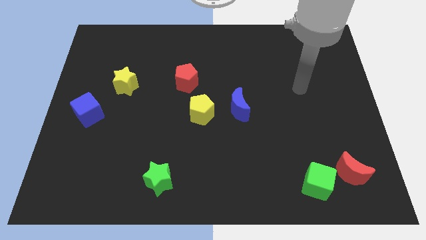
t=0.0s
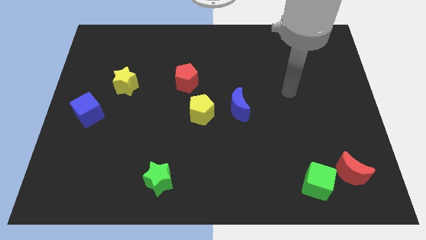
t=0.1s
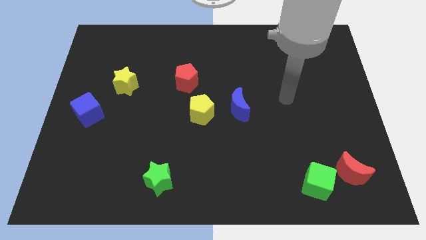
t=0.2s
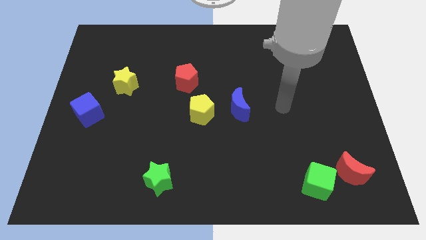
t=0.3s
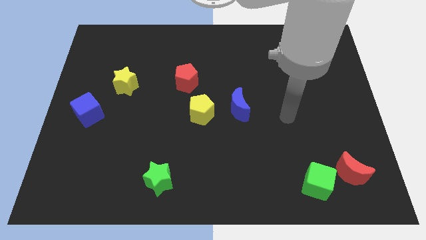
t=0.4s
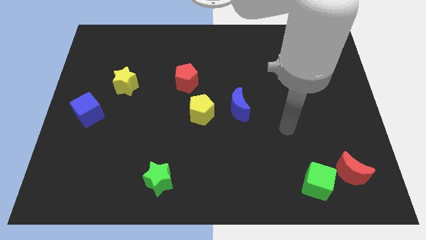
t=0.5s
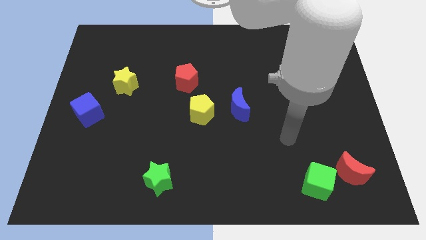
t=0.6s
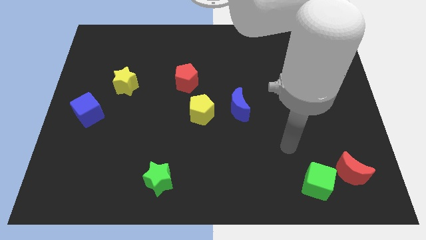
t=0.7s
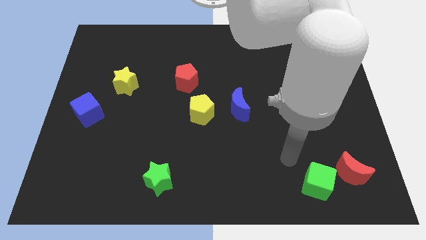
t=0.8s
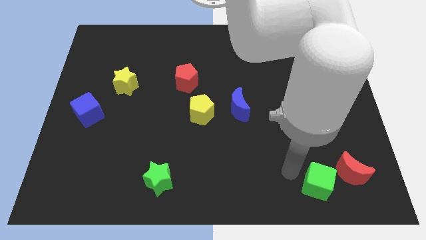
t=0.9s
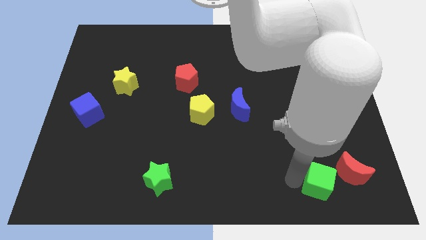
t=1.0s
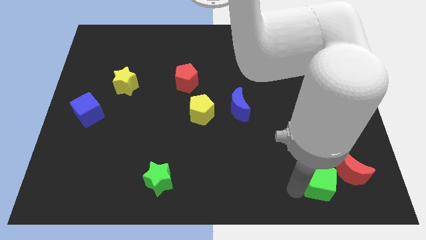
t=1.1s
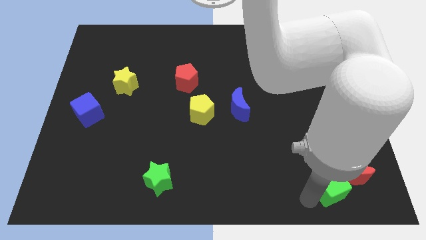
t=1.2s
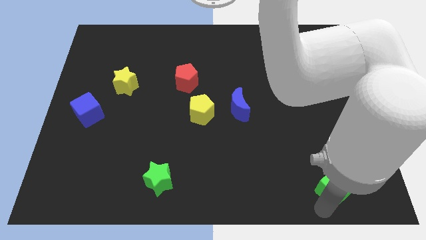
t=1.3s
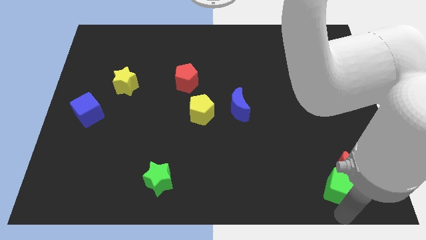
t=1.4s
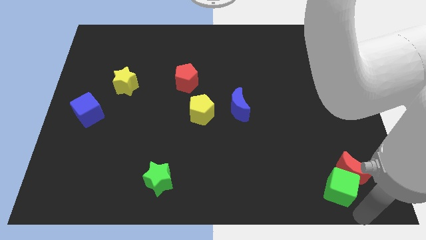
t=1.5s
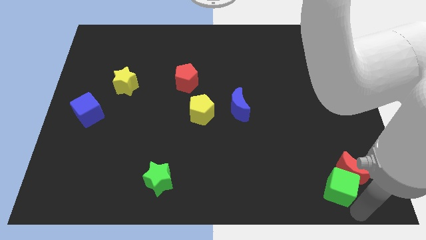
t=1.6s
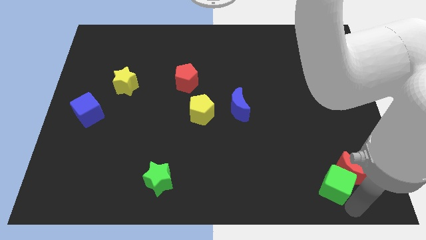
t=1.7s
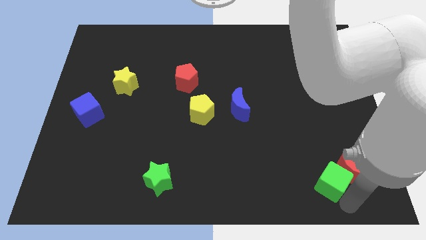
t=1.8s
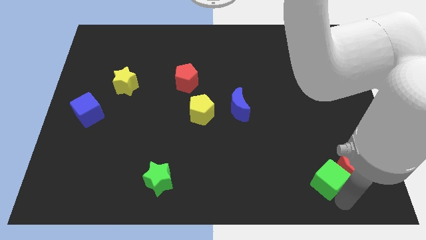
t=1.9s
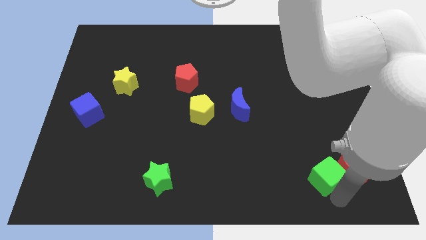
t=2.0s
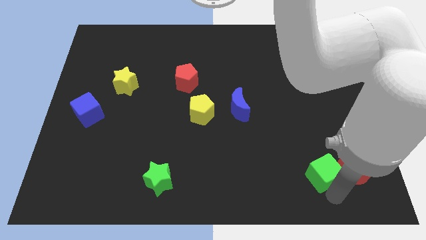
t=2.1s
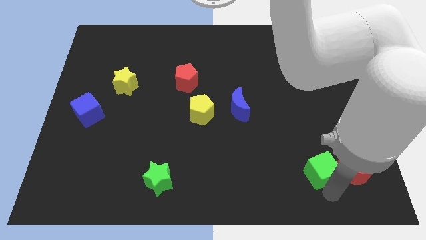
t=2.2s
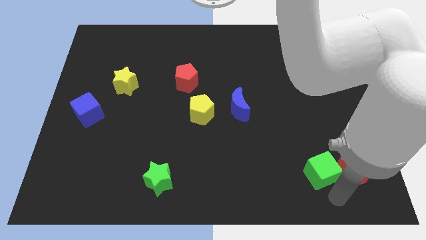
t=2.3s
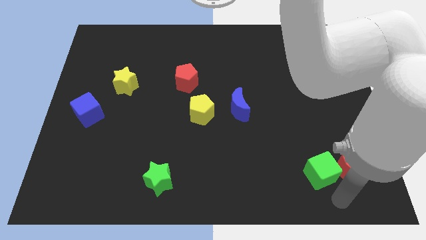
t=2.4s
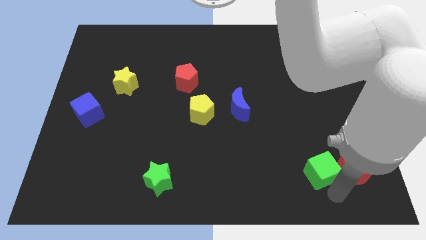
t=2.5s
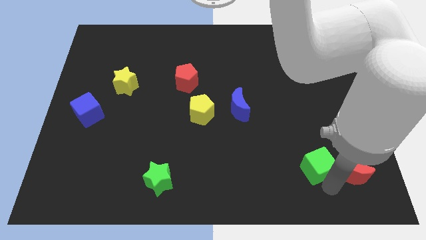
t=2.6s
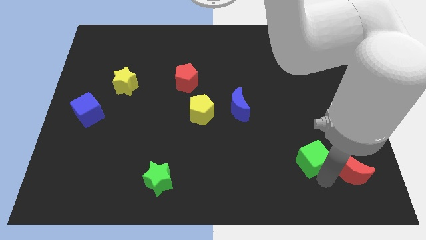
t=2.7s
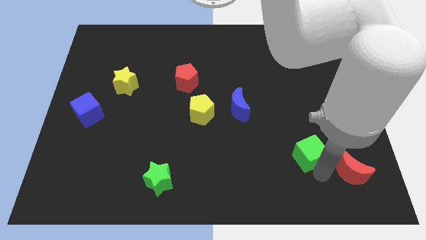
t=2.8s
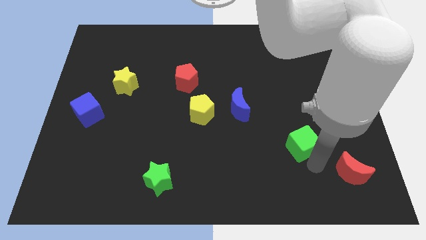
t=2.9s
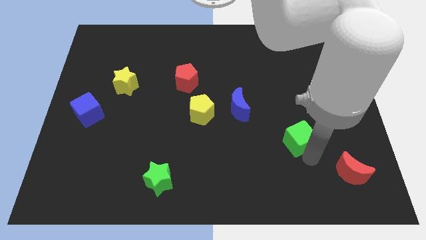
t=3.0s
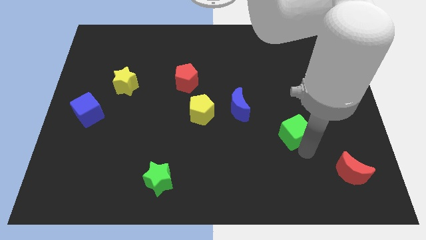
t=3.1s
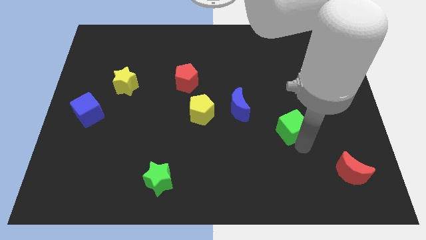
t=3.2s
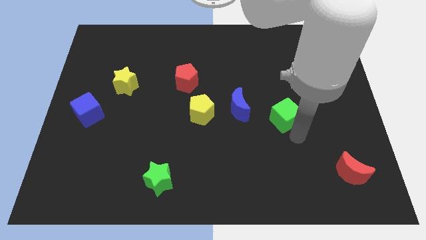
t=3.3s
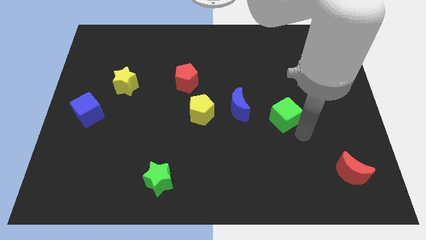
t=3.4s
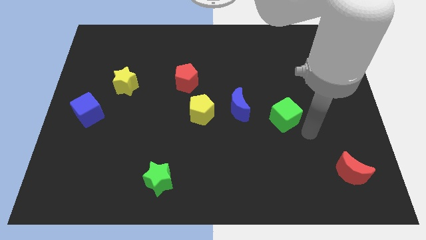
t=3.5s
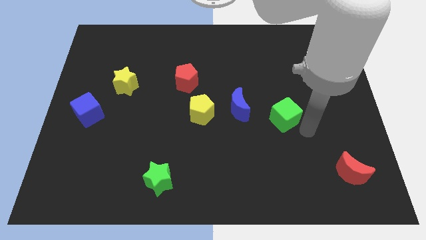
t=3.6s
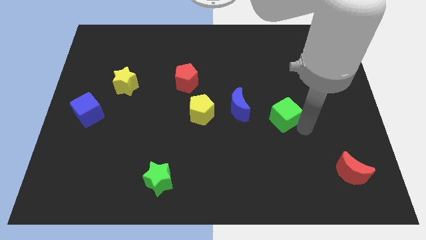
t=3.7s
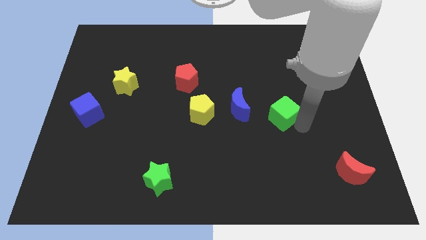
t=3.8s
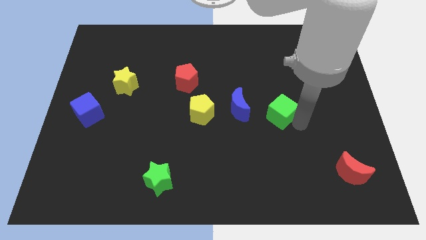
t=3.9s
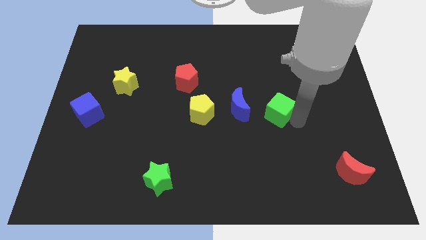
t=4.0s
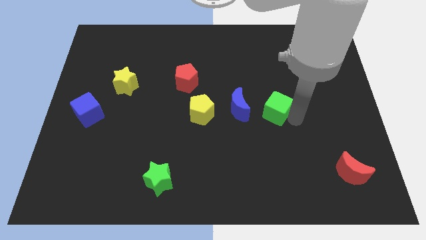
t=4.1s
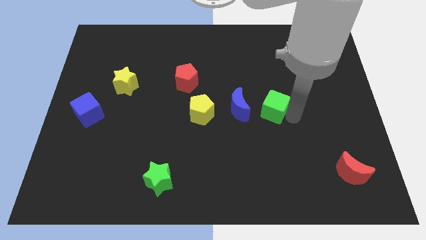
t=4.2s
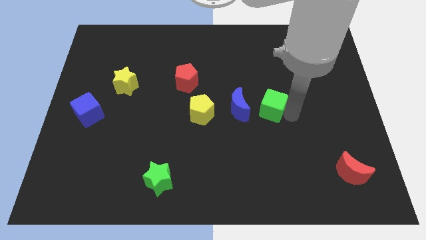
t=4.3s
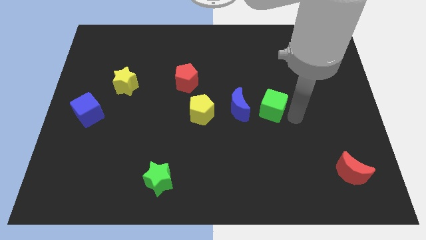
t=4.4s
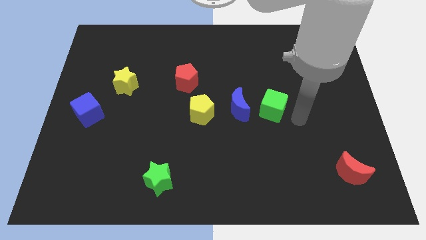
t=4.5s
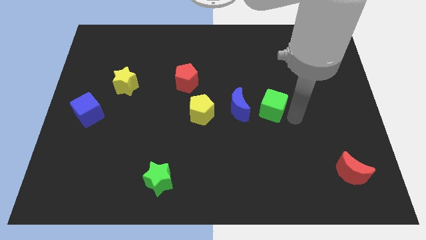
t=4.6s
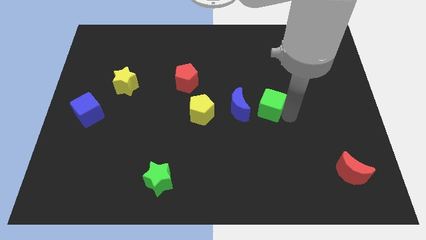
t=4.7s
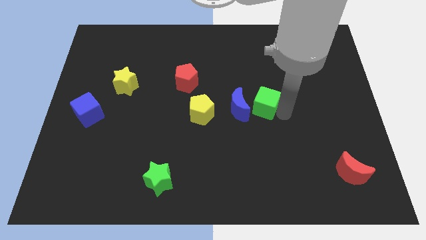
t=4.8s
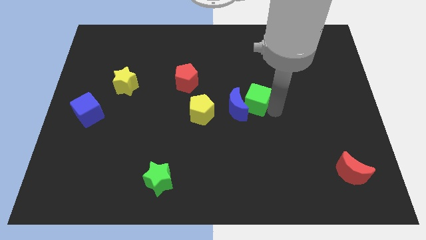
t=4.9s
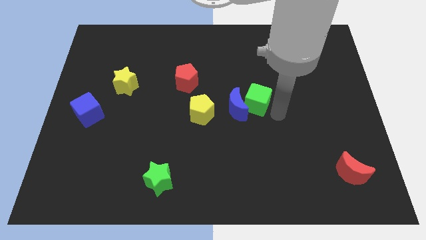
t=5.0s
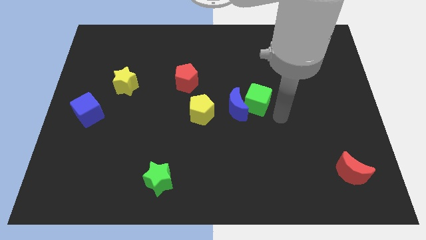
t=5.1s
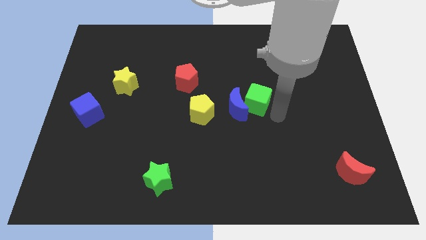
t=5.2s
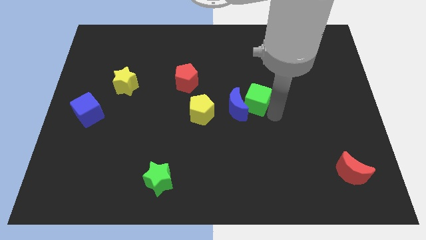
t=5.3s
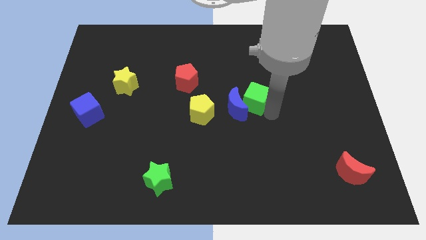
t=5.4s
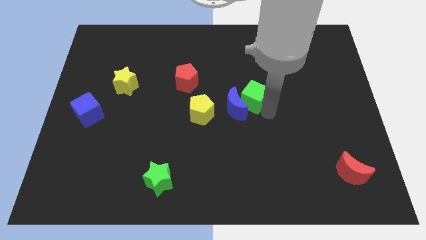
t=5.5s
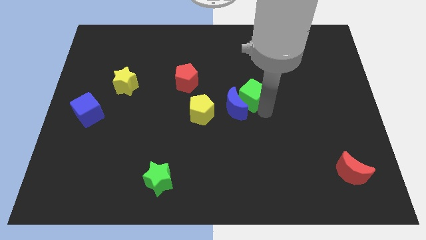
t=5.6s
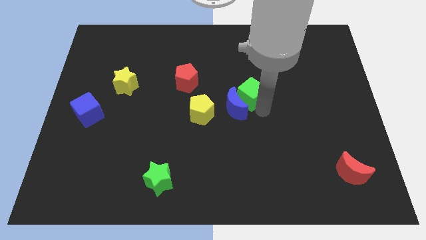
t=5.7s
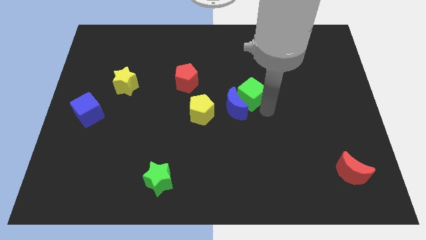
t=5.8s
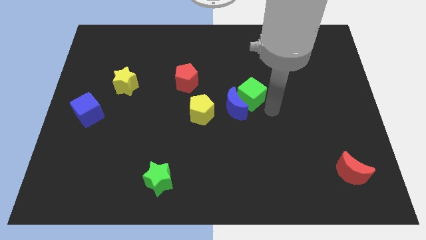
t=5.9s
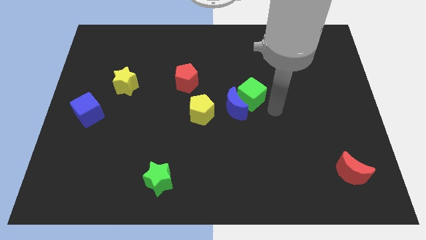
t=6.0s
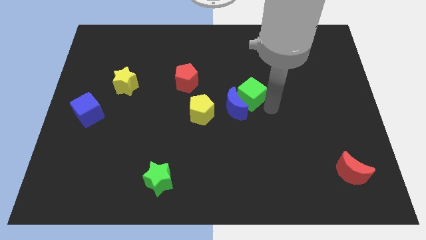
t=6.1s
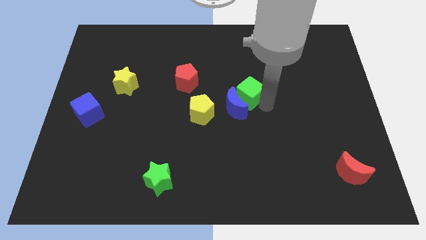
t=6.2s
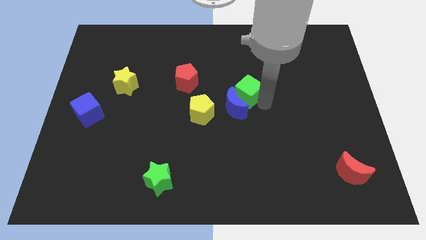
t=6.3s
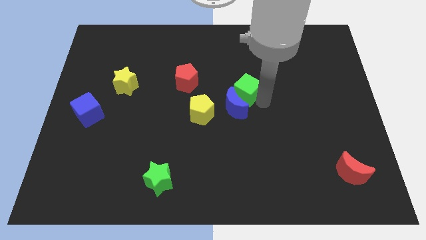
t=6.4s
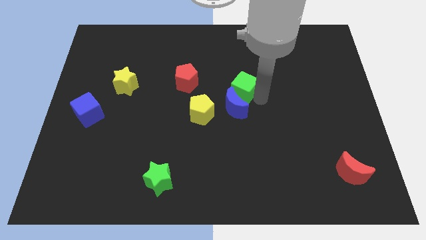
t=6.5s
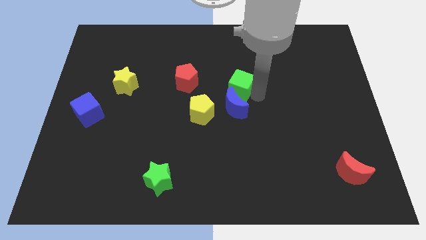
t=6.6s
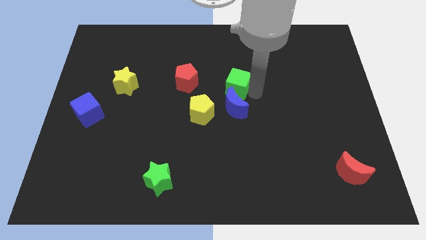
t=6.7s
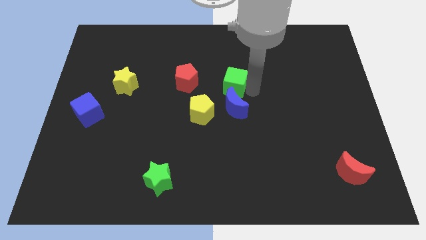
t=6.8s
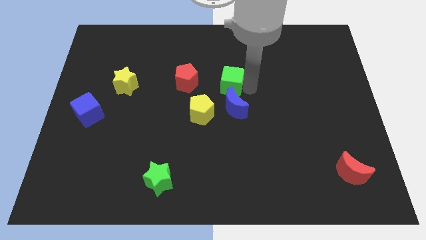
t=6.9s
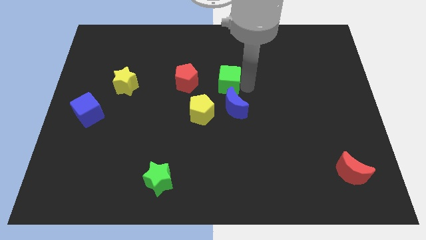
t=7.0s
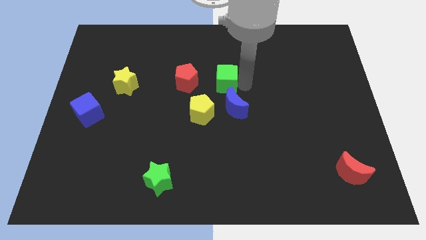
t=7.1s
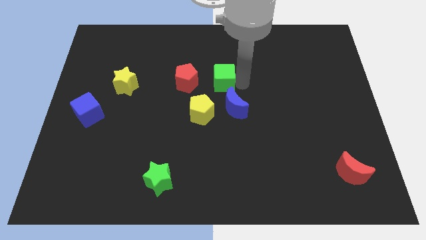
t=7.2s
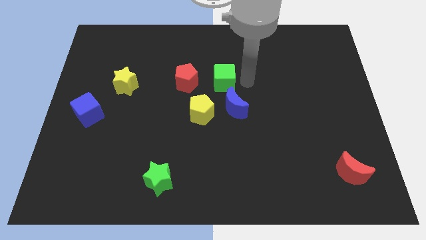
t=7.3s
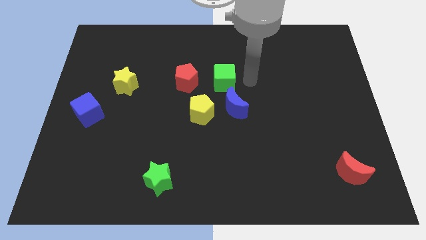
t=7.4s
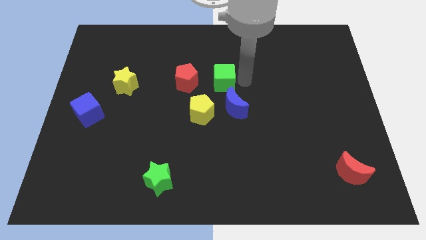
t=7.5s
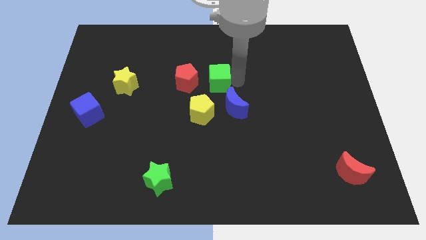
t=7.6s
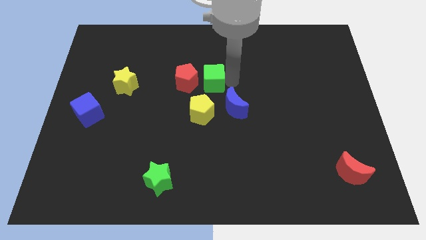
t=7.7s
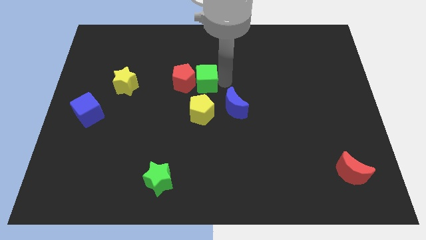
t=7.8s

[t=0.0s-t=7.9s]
put the green cube to the red pentagon
